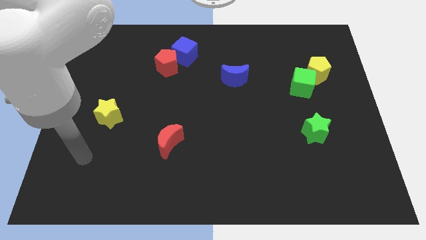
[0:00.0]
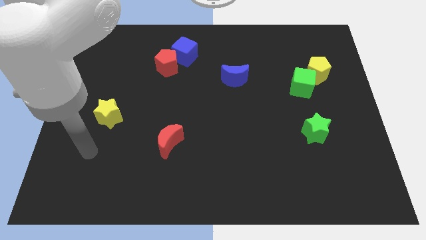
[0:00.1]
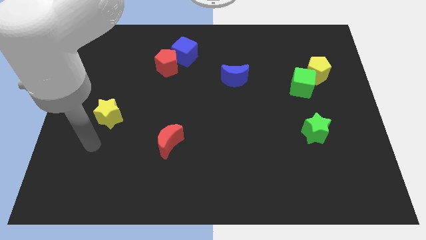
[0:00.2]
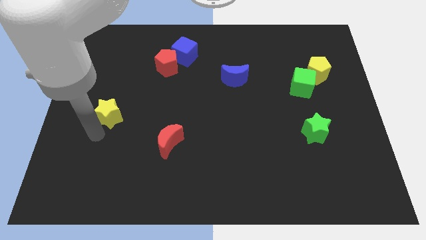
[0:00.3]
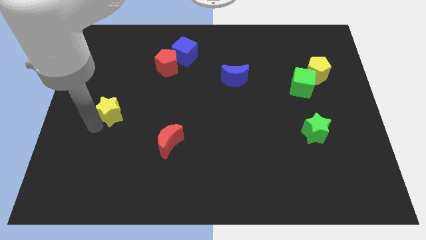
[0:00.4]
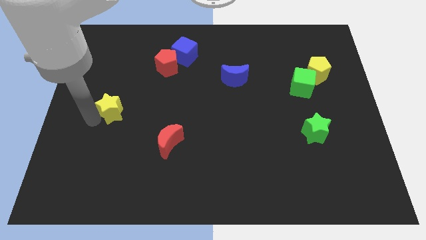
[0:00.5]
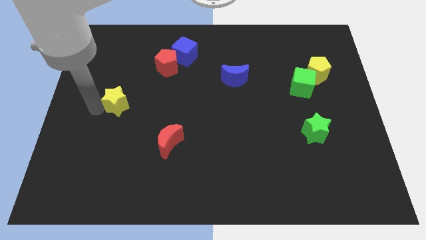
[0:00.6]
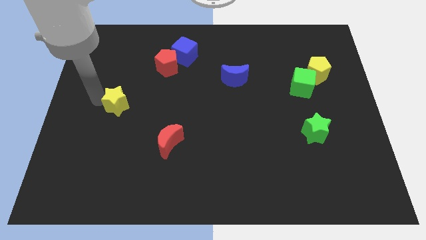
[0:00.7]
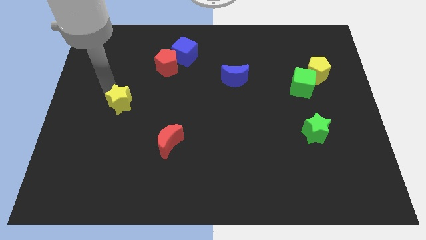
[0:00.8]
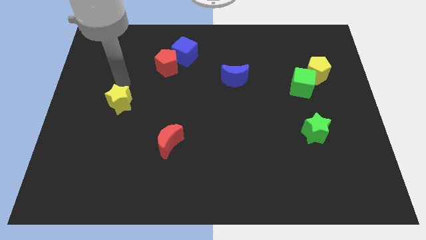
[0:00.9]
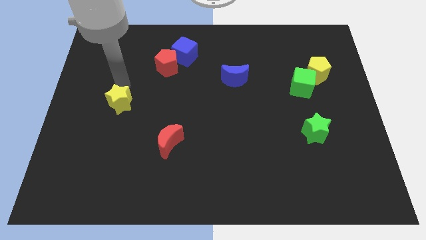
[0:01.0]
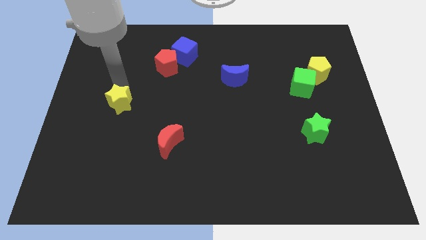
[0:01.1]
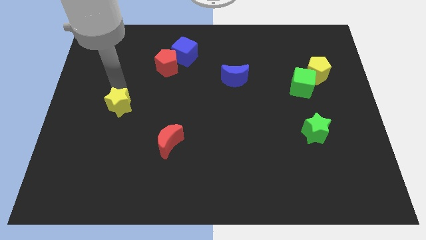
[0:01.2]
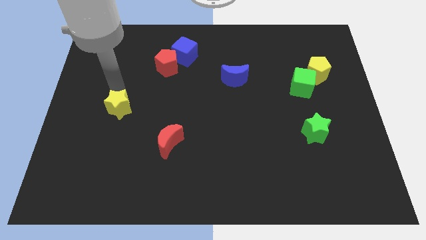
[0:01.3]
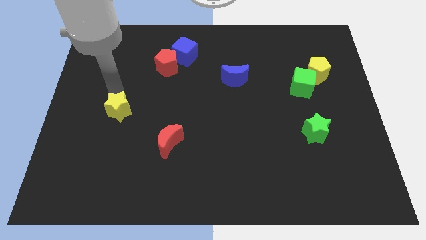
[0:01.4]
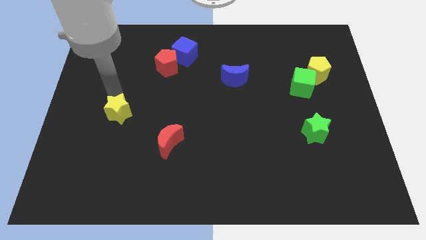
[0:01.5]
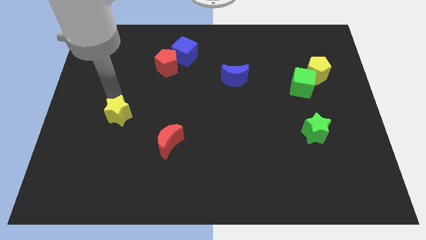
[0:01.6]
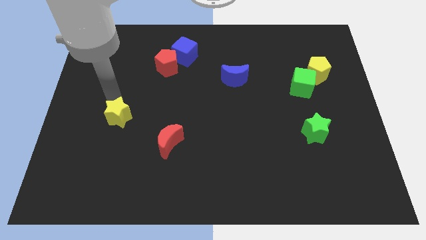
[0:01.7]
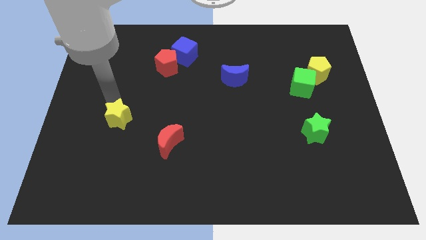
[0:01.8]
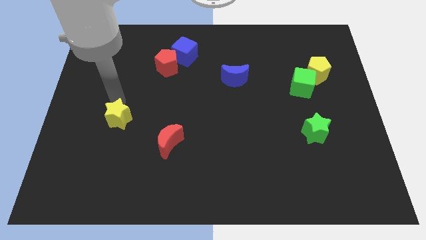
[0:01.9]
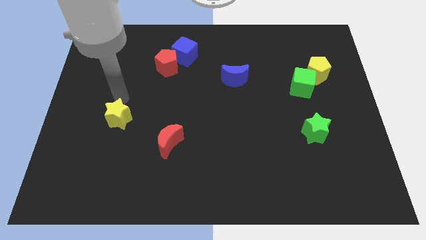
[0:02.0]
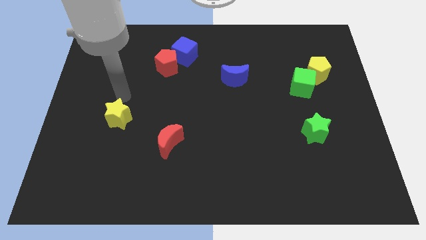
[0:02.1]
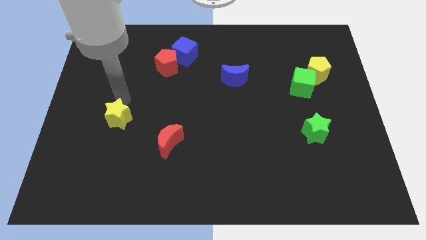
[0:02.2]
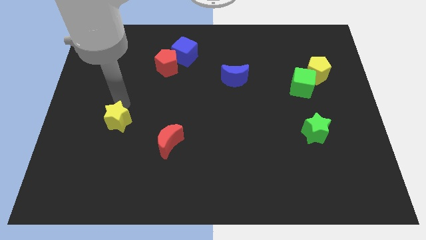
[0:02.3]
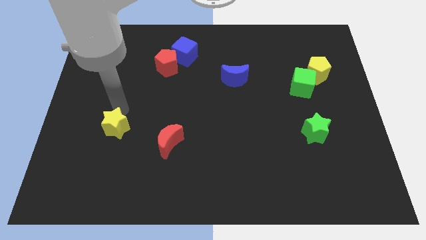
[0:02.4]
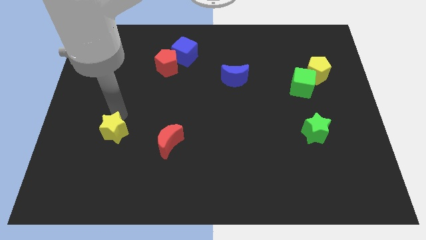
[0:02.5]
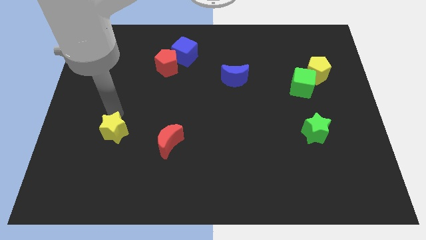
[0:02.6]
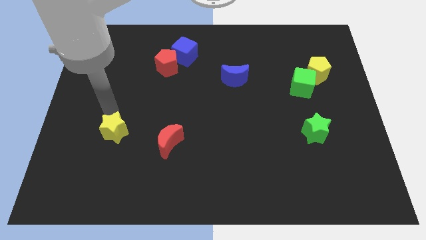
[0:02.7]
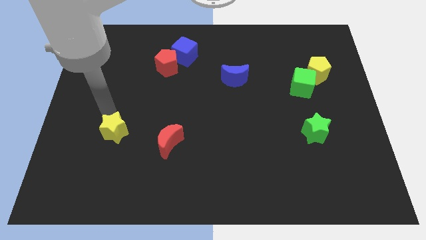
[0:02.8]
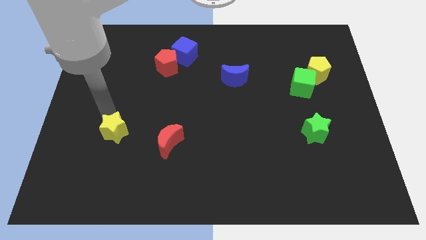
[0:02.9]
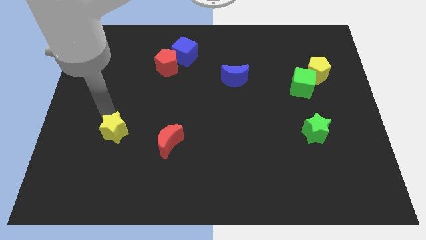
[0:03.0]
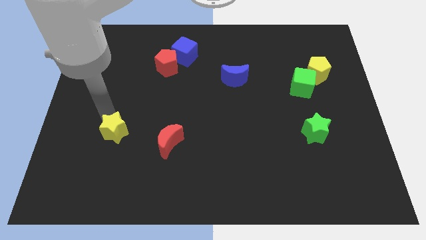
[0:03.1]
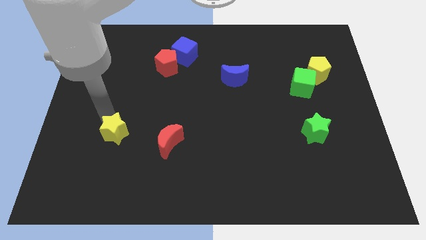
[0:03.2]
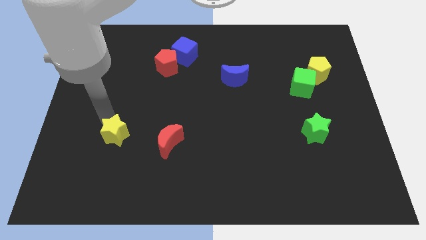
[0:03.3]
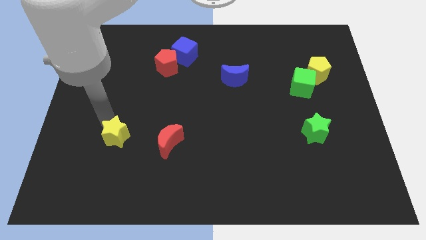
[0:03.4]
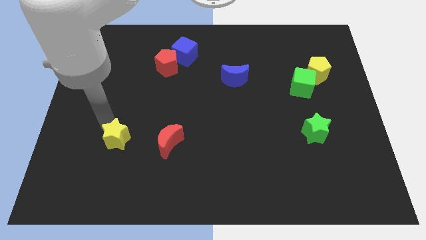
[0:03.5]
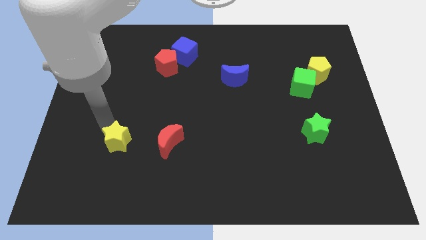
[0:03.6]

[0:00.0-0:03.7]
slide the yellow star a little bit downwards and right diagonally

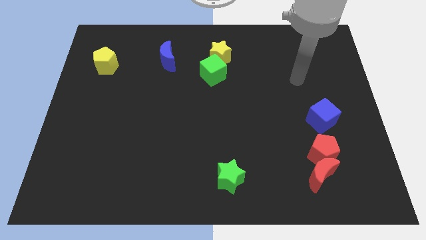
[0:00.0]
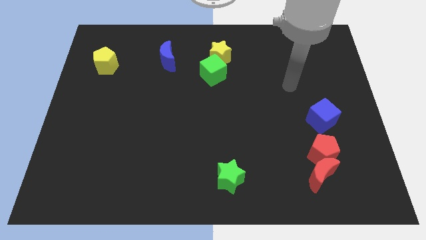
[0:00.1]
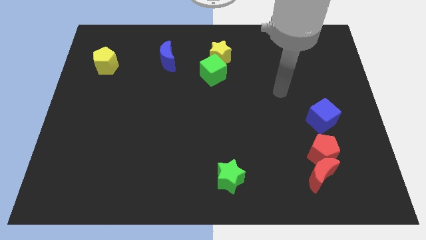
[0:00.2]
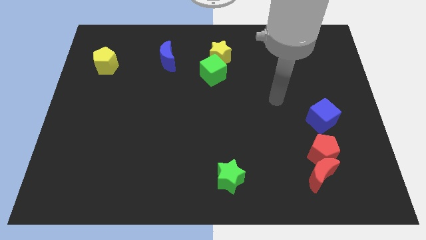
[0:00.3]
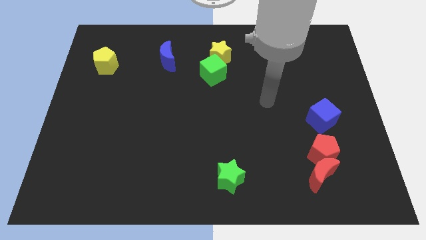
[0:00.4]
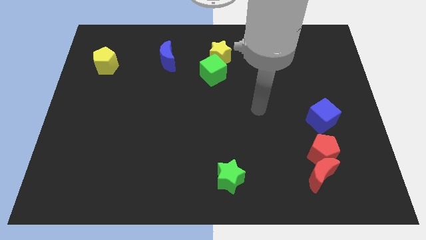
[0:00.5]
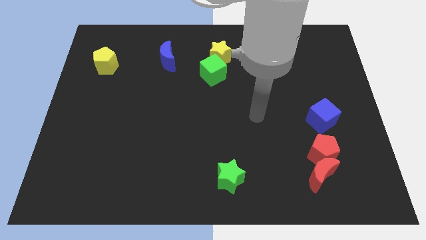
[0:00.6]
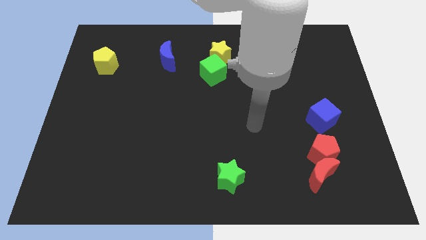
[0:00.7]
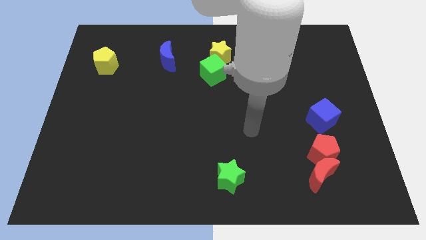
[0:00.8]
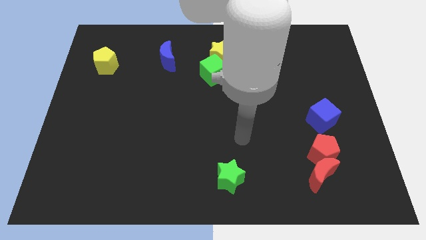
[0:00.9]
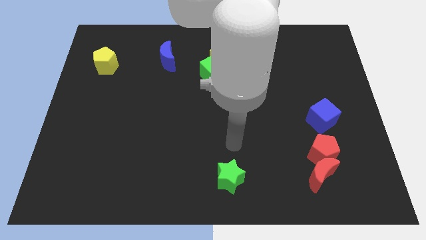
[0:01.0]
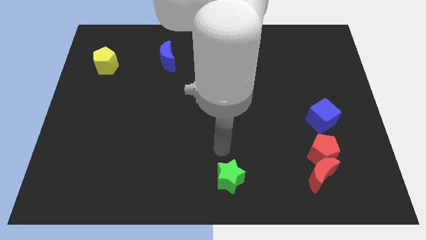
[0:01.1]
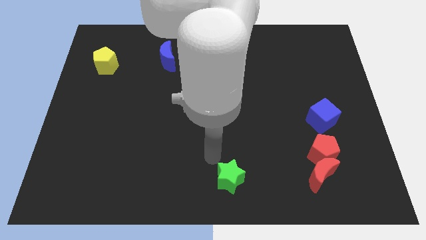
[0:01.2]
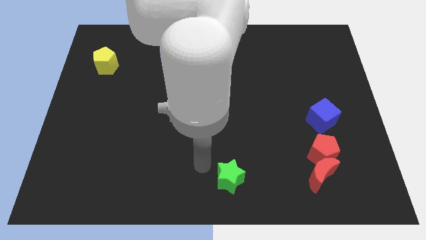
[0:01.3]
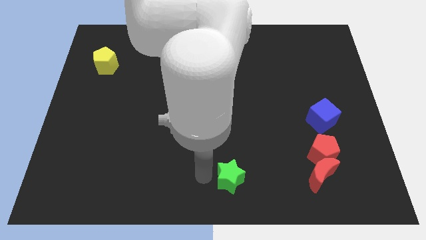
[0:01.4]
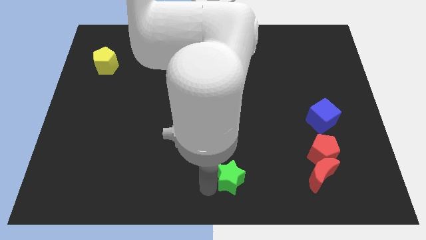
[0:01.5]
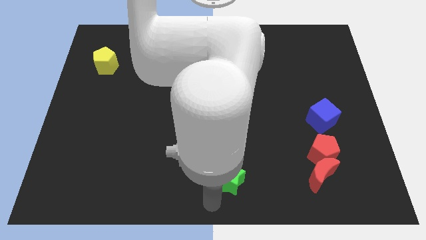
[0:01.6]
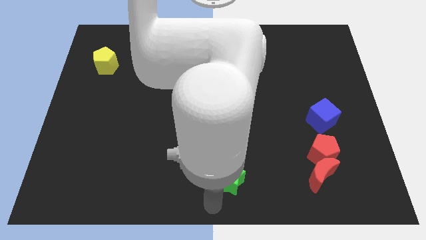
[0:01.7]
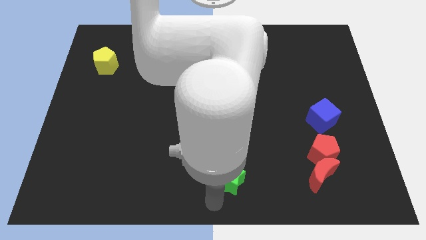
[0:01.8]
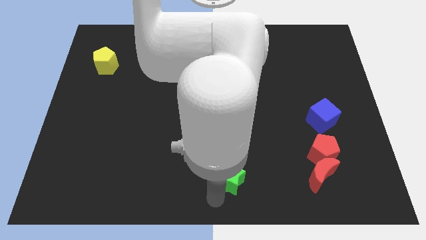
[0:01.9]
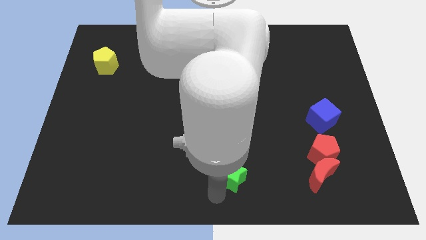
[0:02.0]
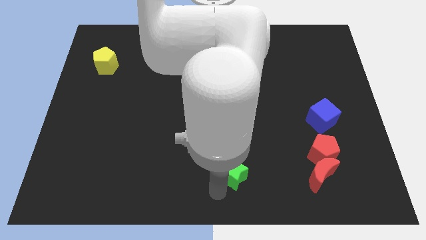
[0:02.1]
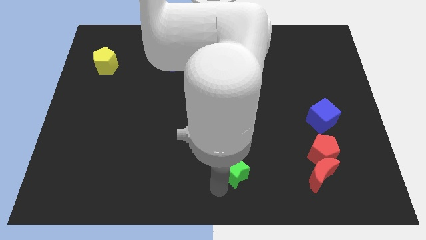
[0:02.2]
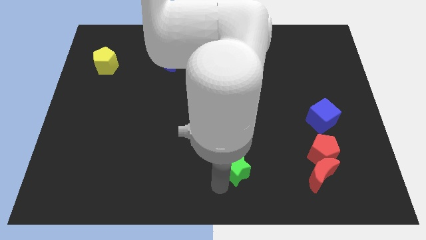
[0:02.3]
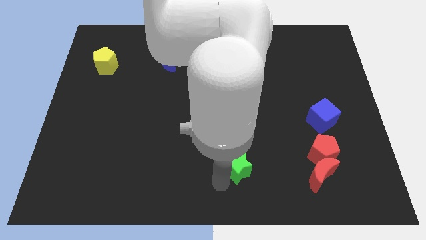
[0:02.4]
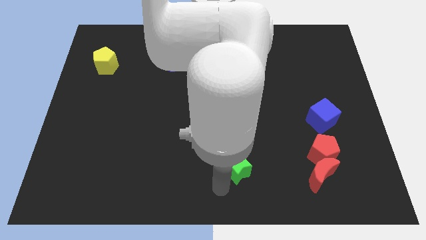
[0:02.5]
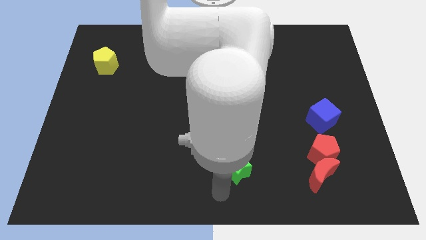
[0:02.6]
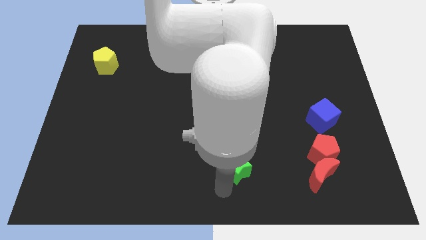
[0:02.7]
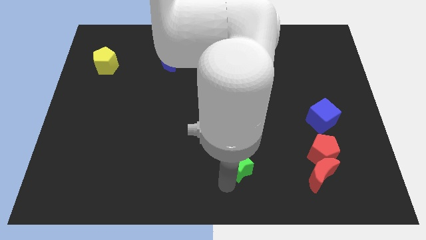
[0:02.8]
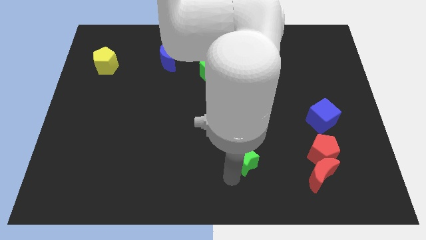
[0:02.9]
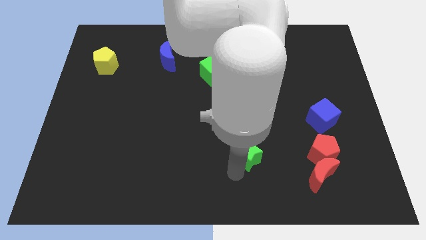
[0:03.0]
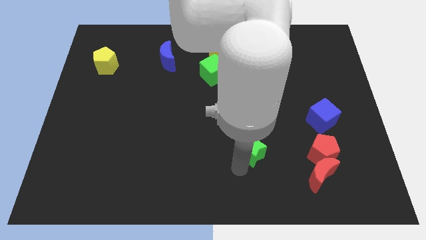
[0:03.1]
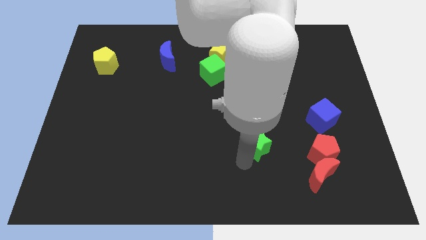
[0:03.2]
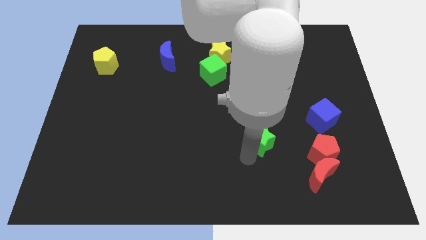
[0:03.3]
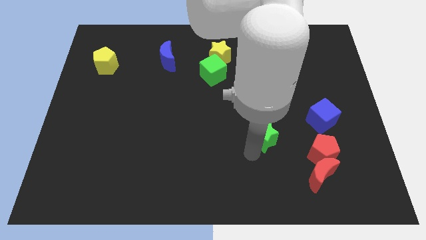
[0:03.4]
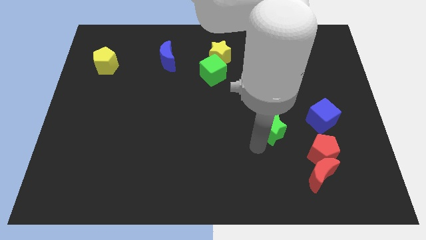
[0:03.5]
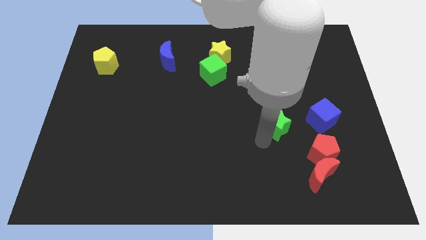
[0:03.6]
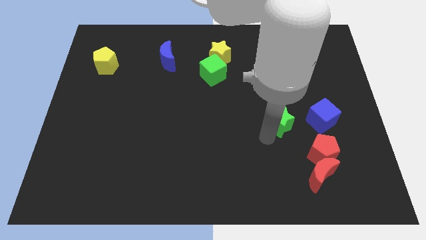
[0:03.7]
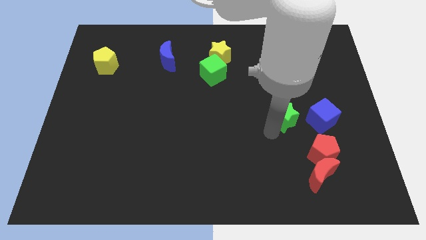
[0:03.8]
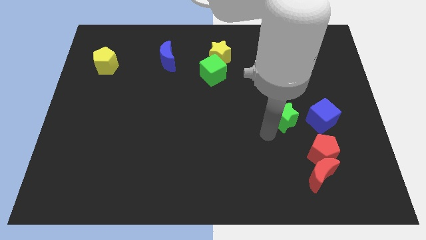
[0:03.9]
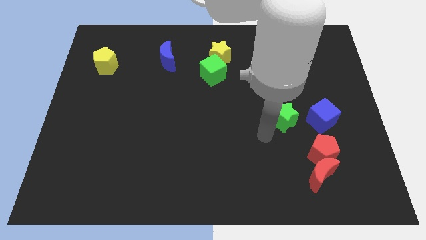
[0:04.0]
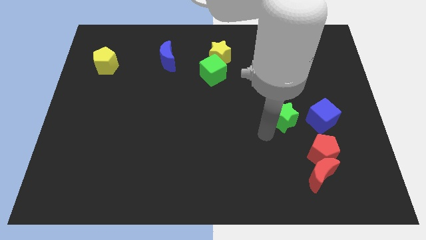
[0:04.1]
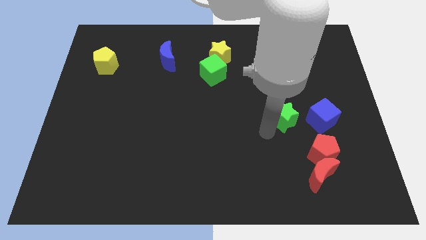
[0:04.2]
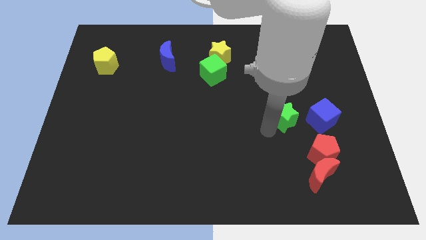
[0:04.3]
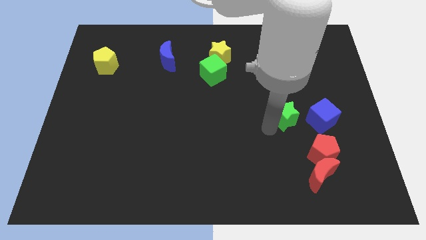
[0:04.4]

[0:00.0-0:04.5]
push the green star up and to the right
